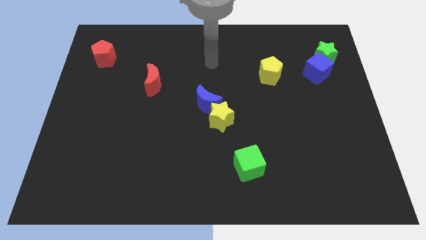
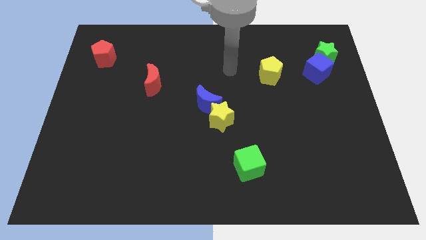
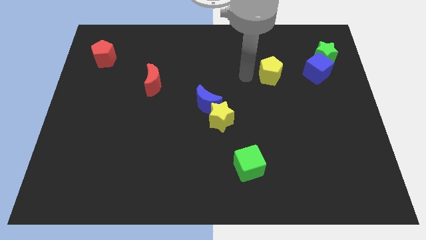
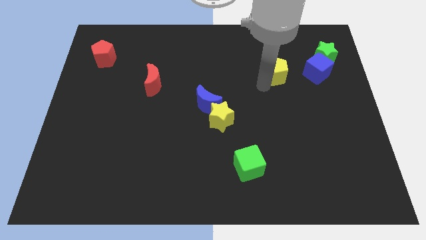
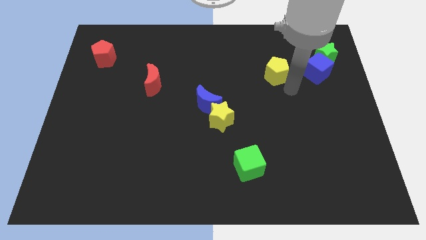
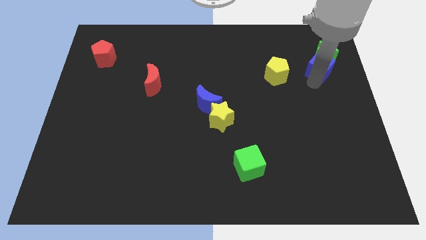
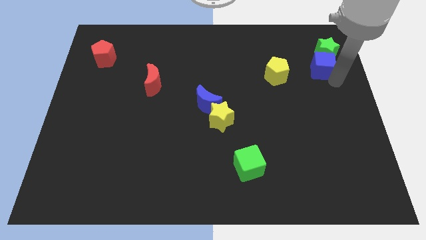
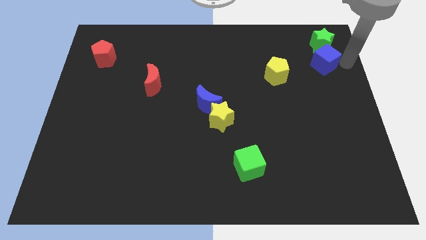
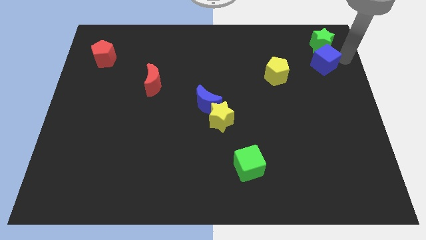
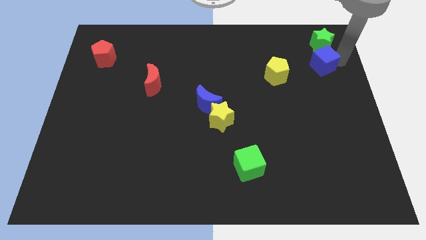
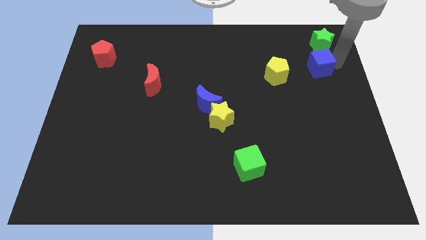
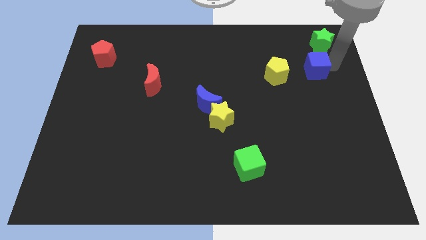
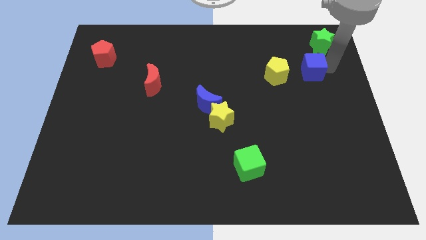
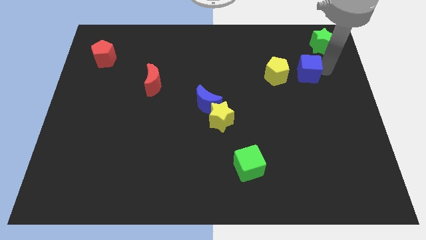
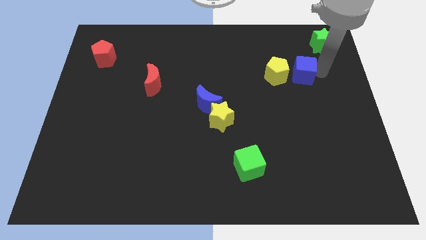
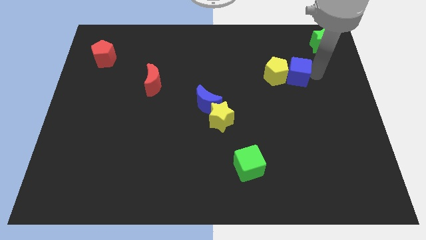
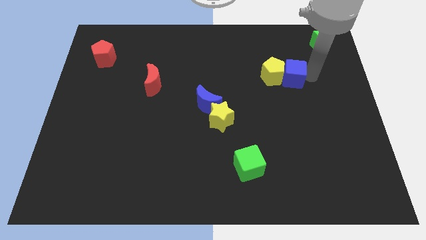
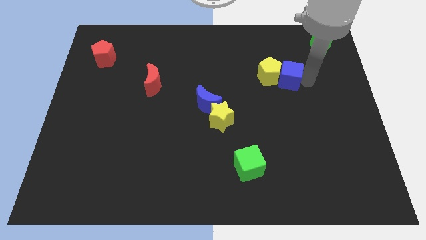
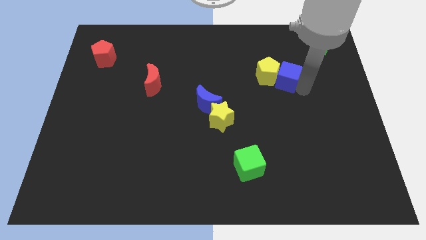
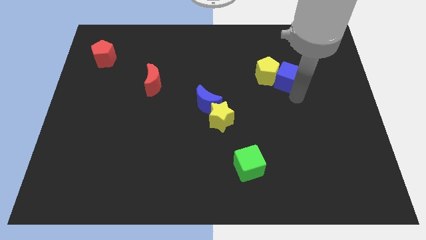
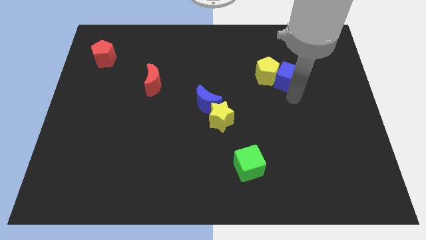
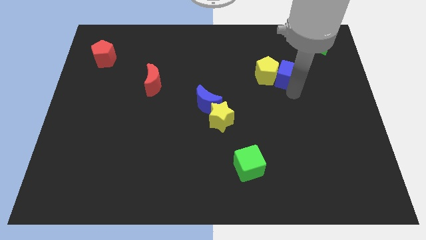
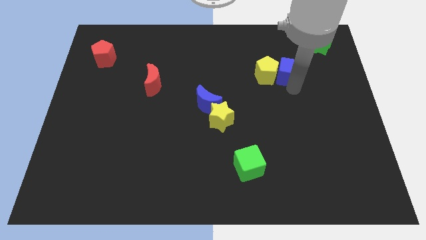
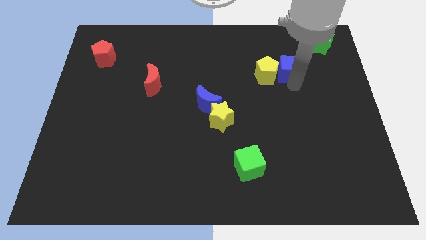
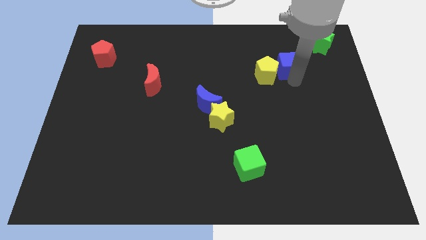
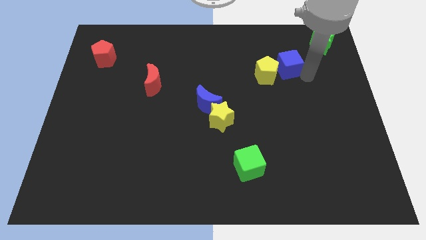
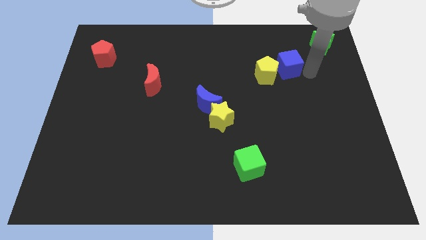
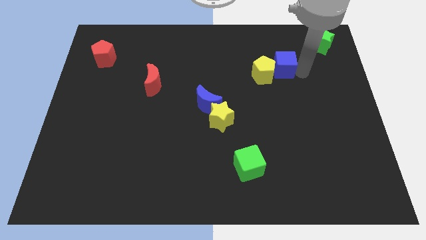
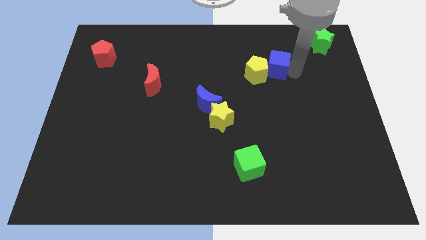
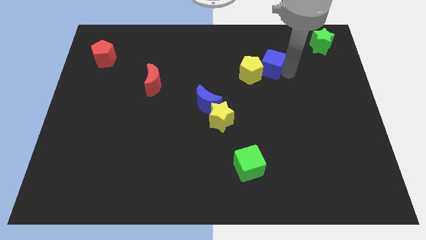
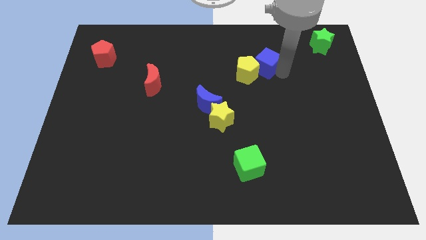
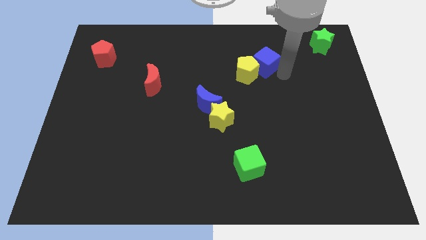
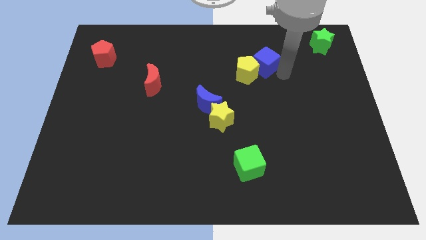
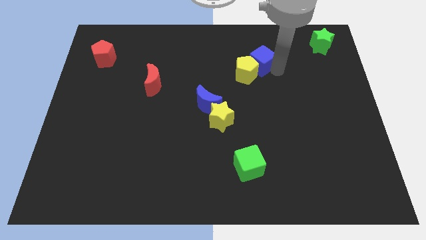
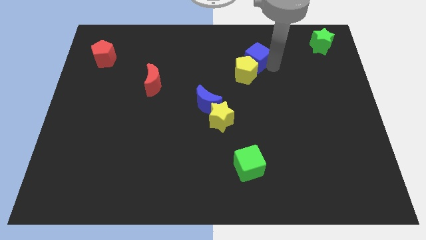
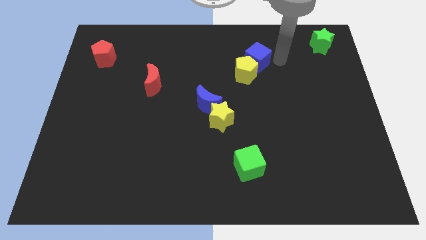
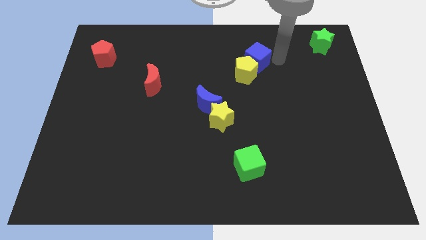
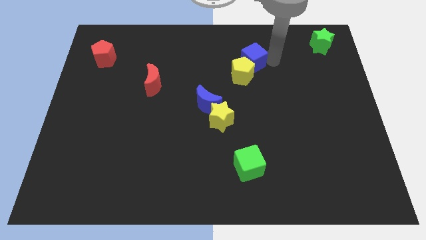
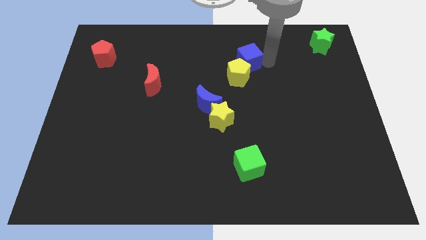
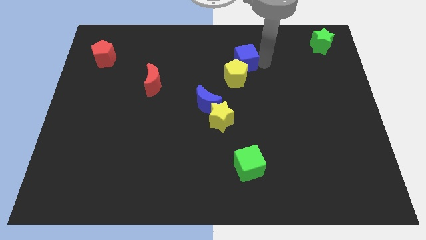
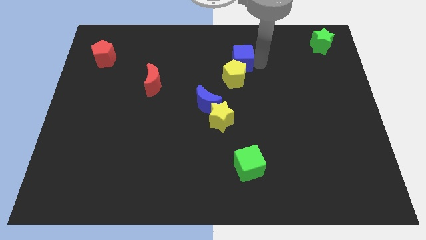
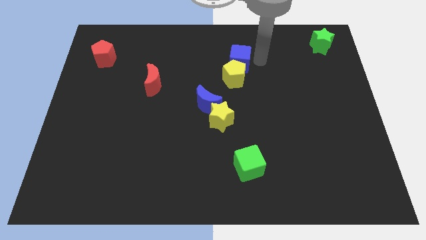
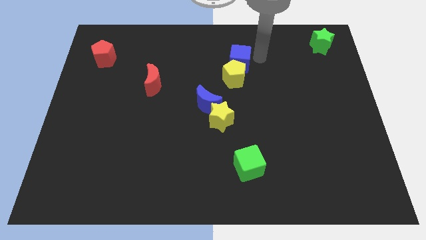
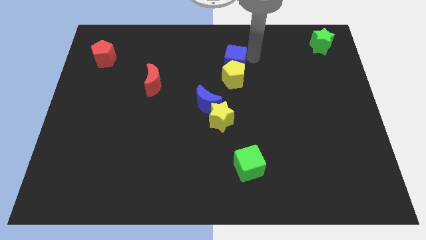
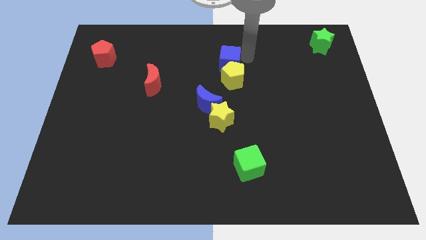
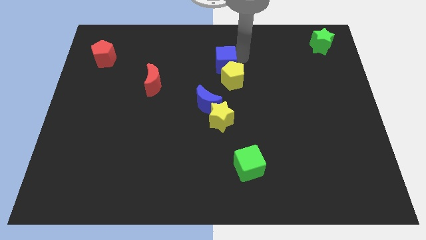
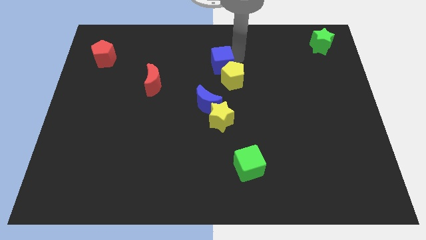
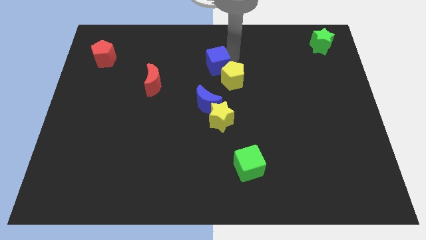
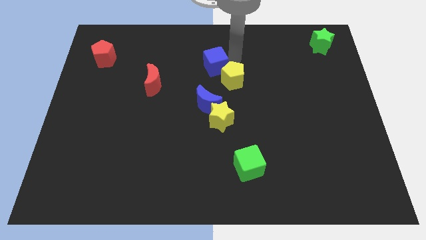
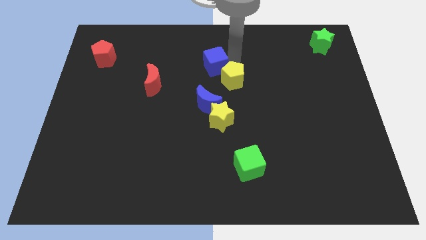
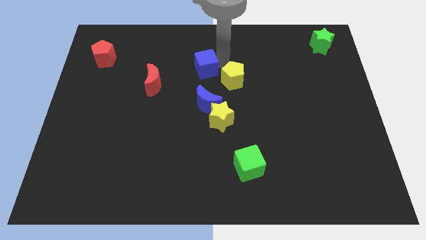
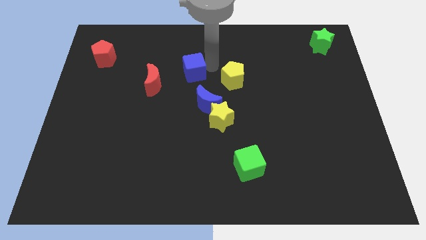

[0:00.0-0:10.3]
move the blue cube to the top right of the red moon

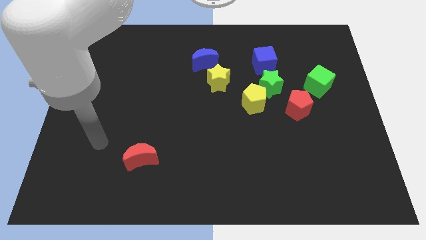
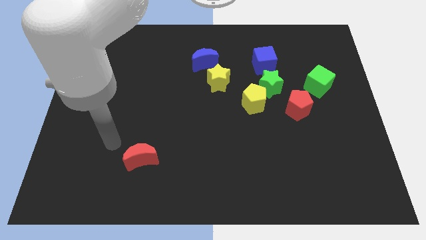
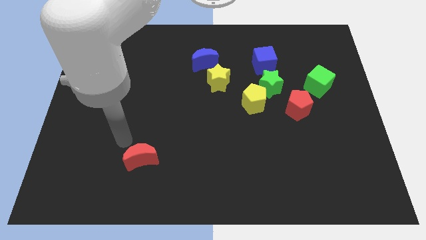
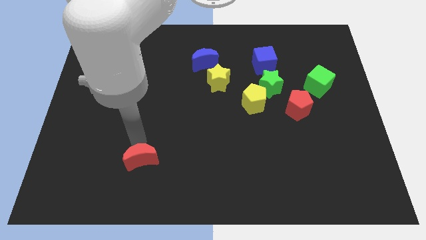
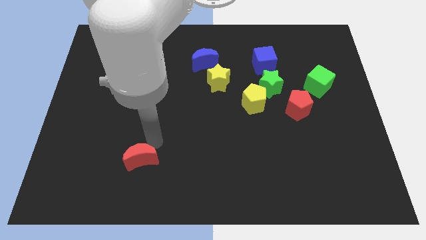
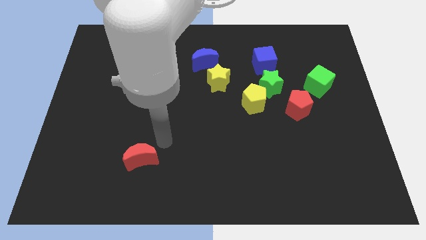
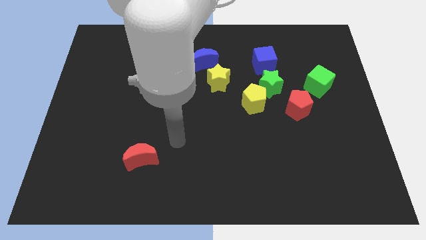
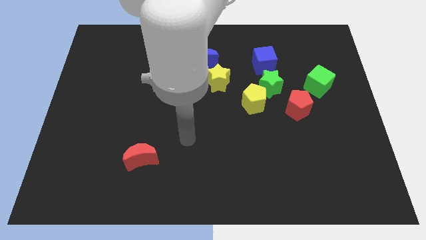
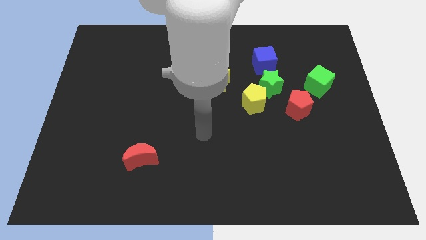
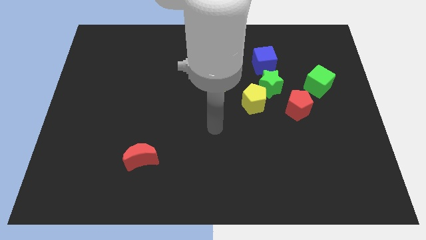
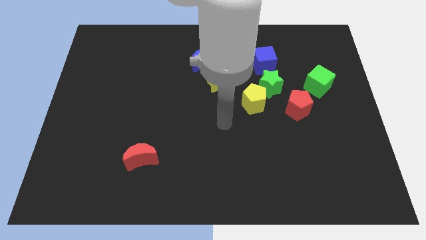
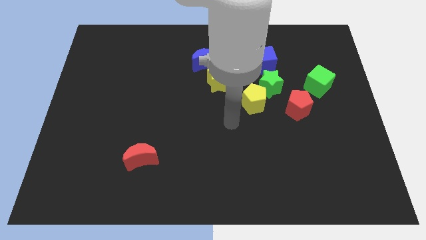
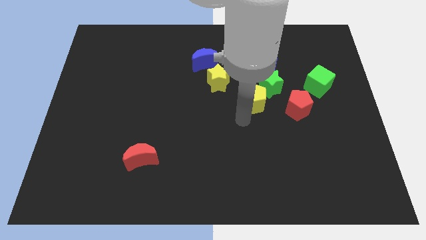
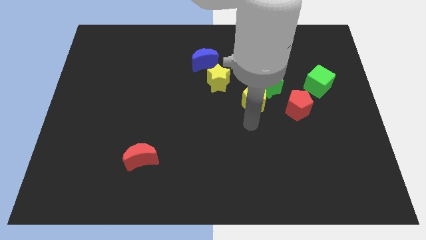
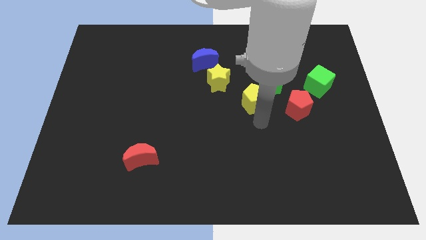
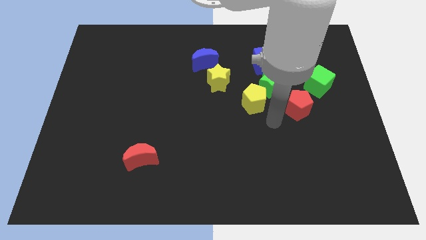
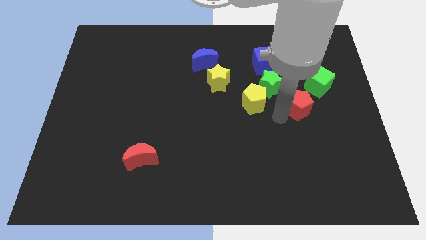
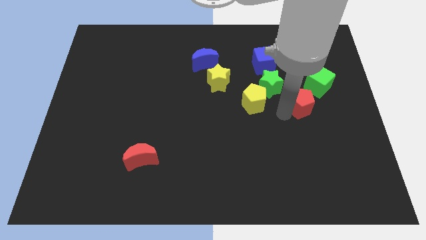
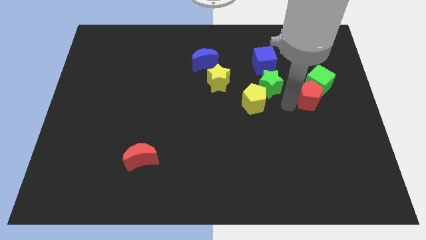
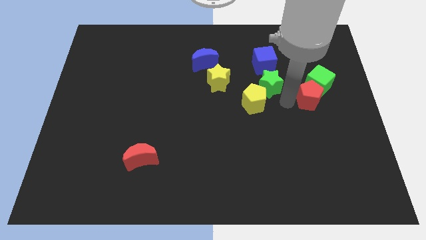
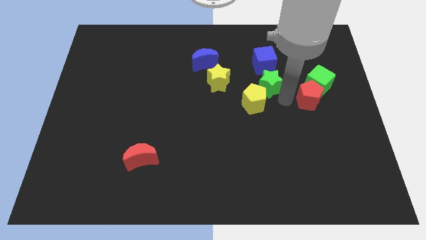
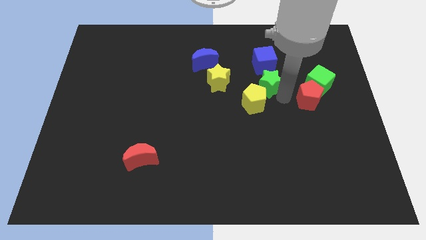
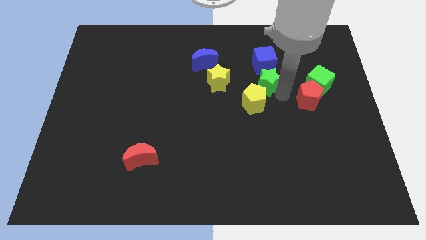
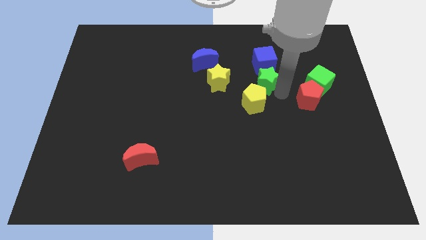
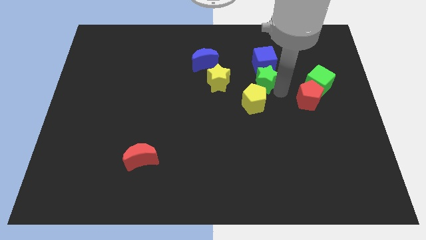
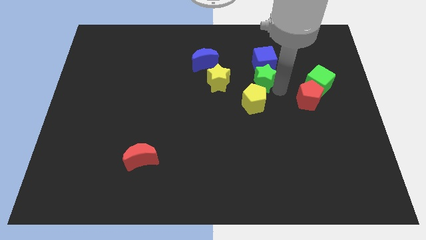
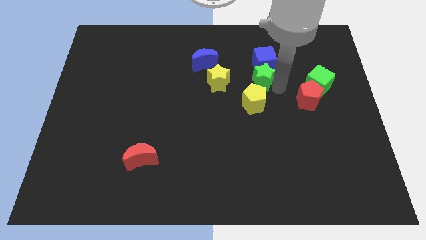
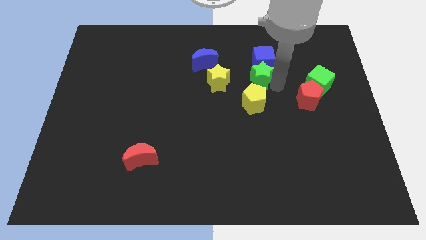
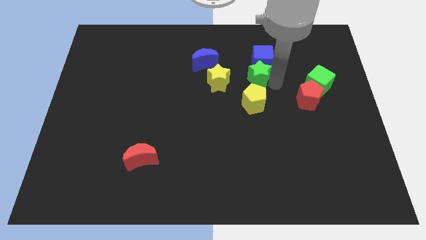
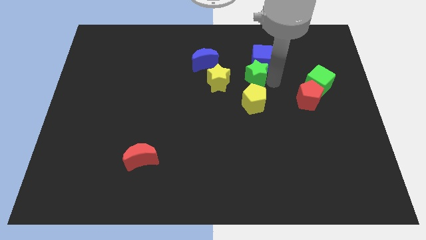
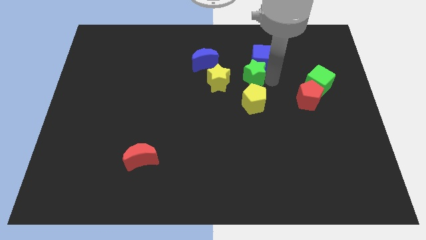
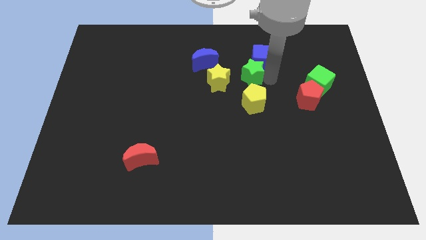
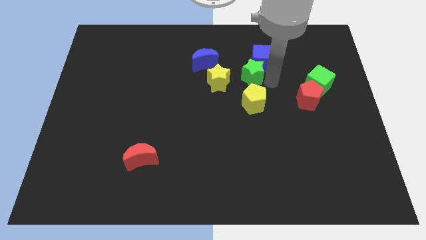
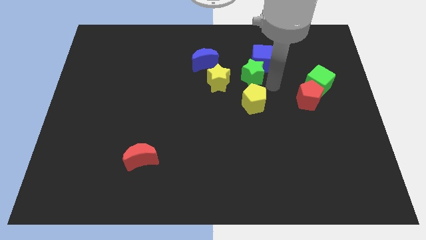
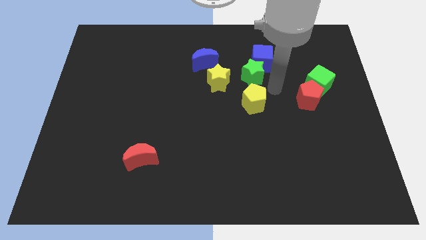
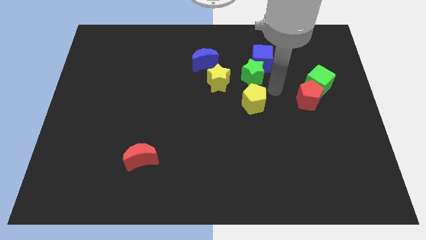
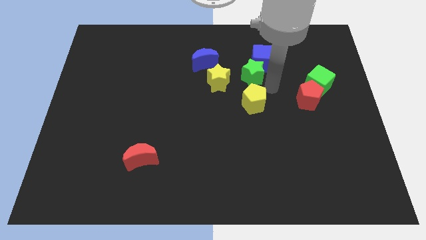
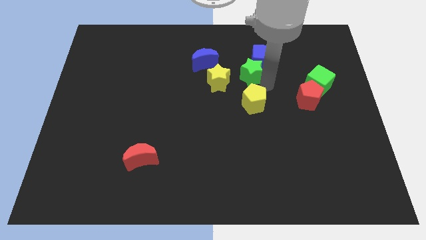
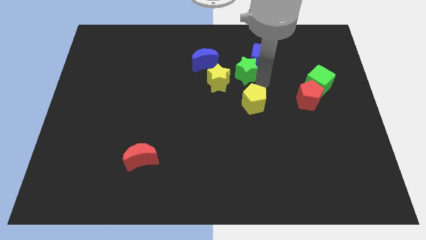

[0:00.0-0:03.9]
put the green star left of the blue cube
